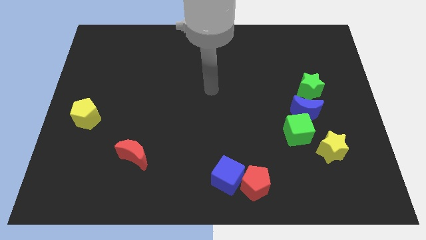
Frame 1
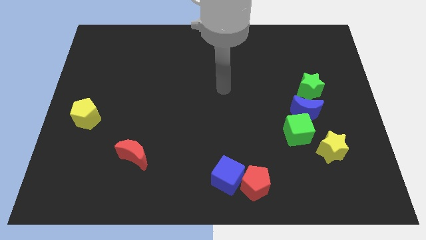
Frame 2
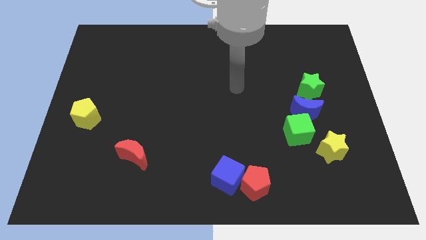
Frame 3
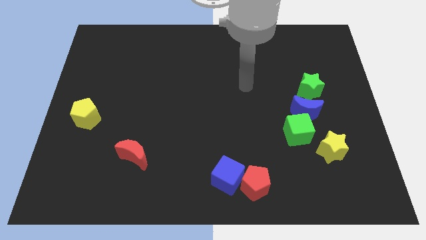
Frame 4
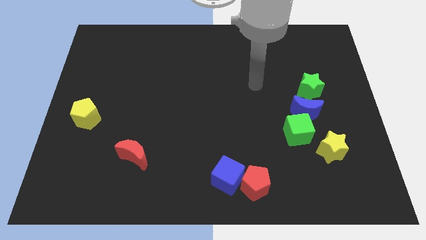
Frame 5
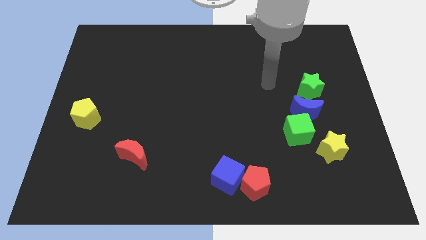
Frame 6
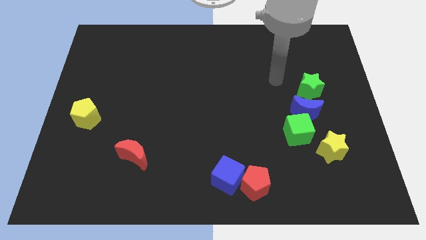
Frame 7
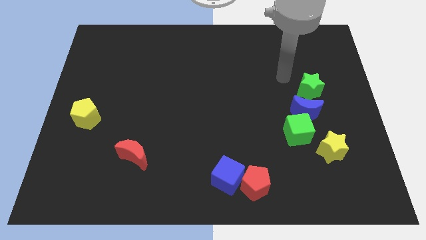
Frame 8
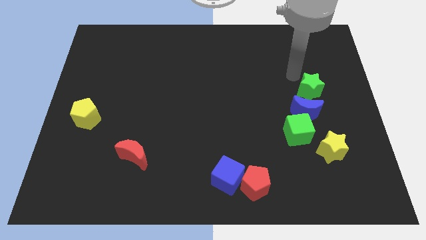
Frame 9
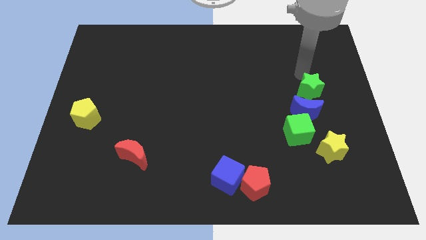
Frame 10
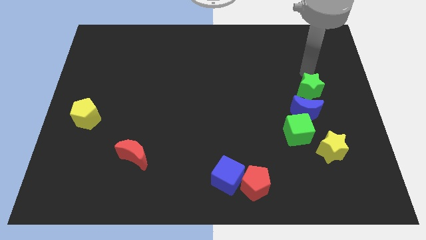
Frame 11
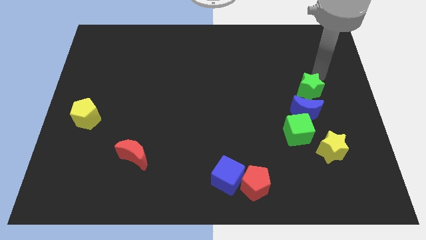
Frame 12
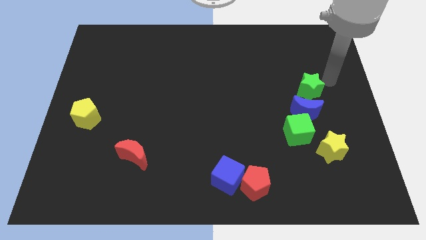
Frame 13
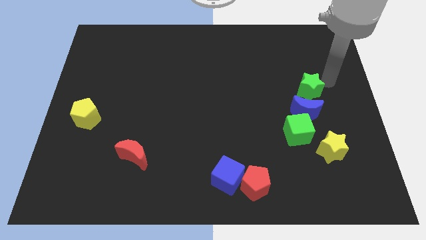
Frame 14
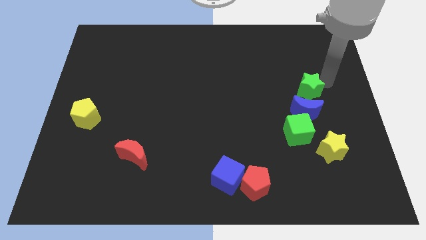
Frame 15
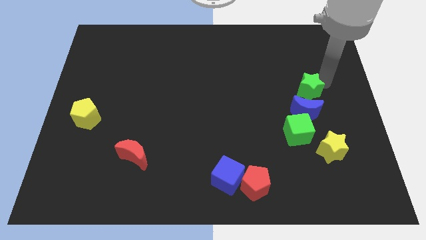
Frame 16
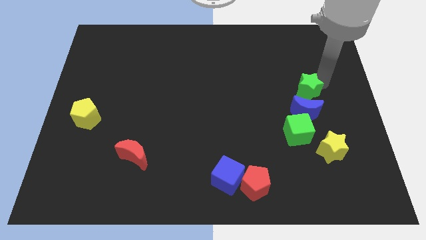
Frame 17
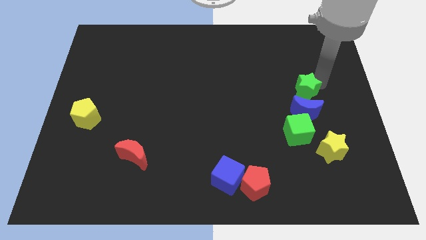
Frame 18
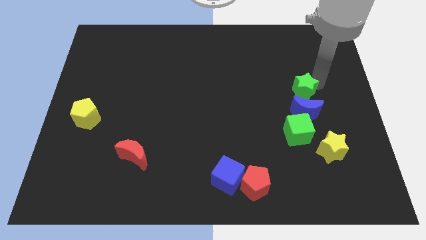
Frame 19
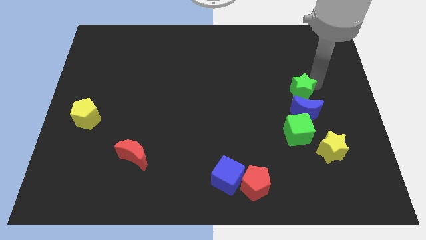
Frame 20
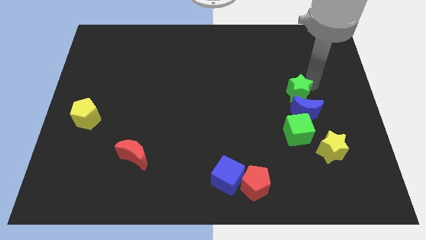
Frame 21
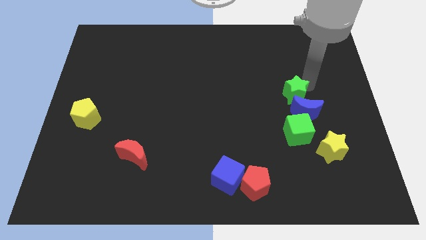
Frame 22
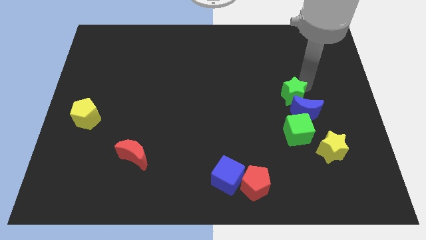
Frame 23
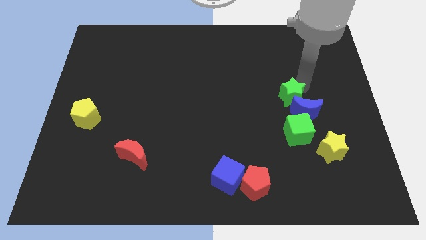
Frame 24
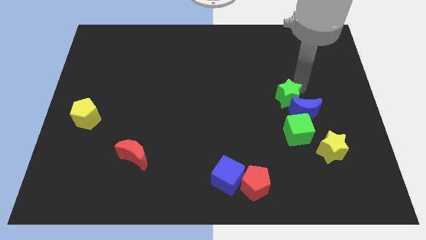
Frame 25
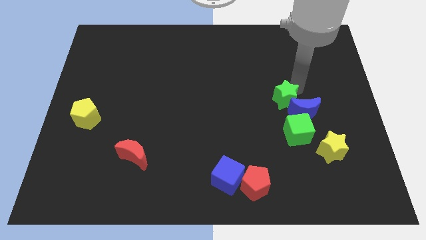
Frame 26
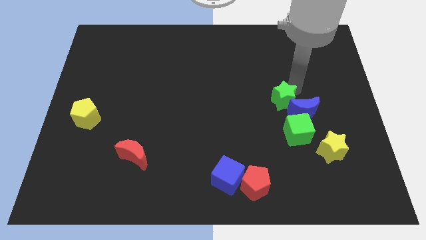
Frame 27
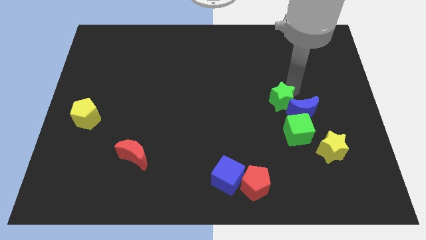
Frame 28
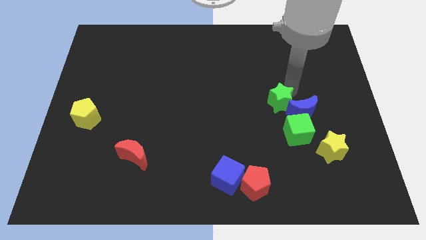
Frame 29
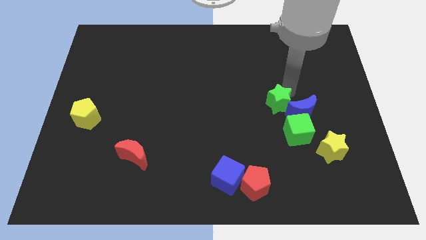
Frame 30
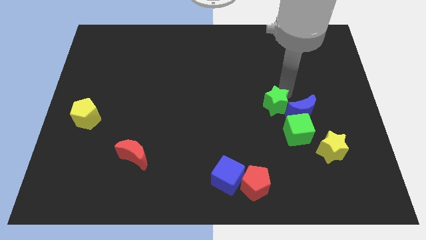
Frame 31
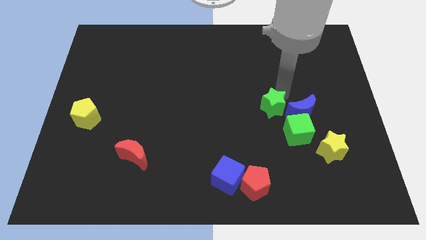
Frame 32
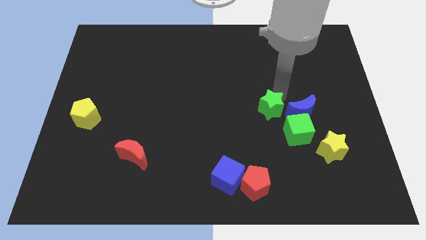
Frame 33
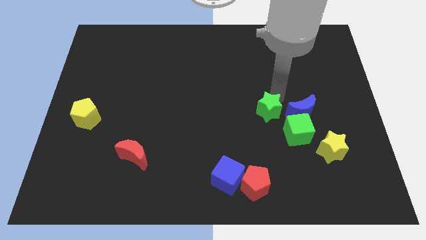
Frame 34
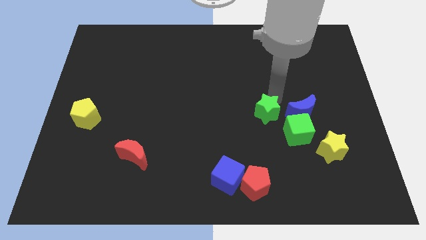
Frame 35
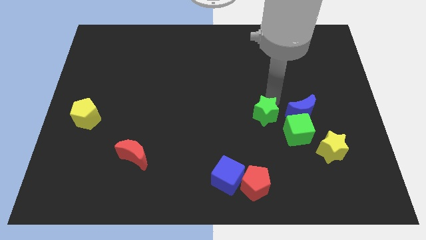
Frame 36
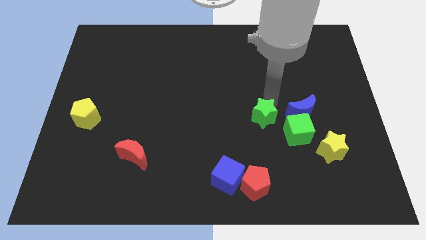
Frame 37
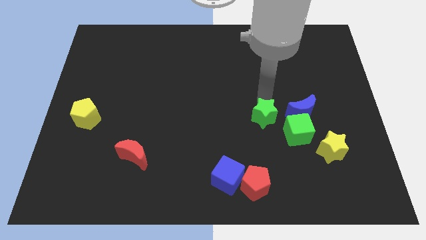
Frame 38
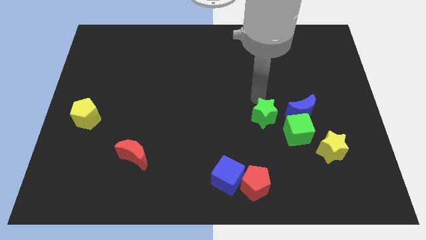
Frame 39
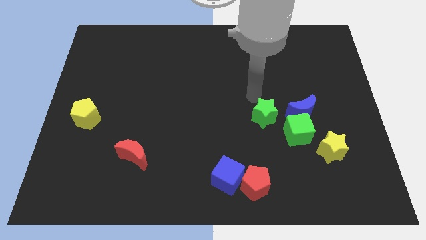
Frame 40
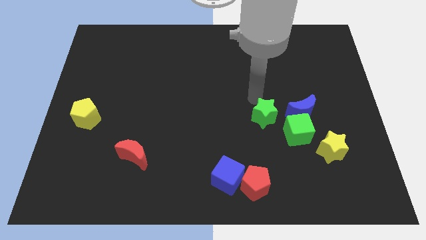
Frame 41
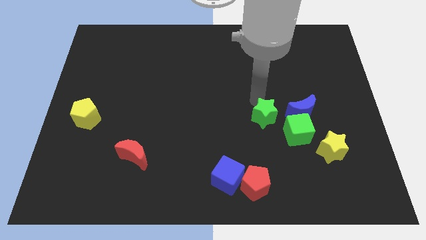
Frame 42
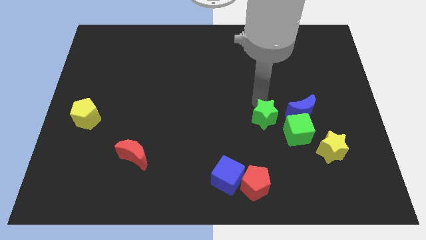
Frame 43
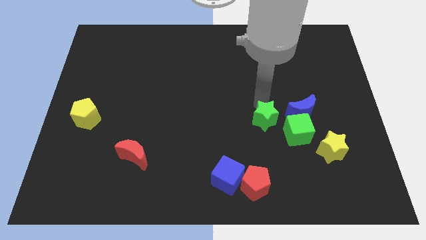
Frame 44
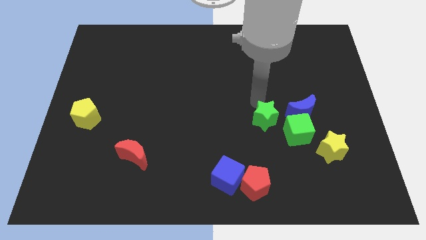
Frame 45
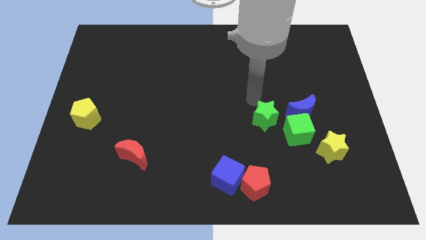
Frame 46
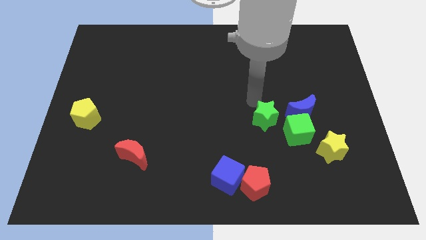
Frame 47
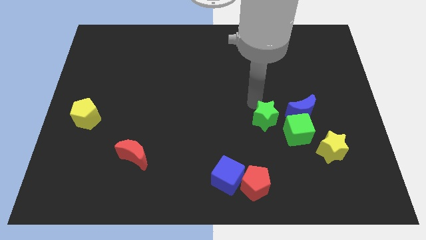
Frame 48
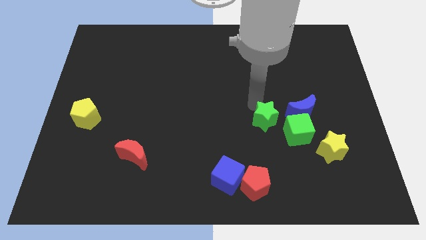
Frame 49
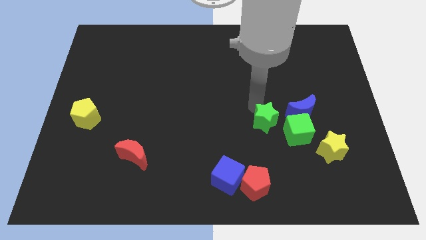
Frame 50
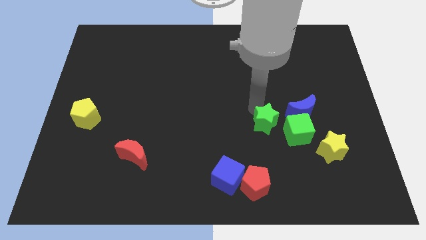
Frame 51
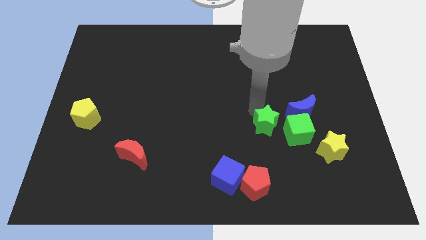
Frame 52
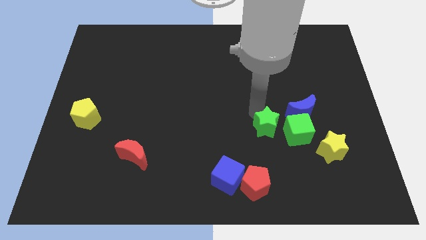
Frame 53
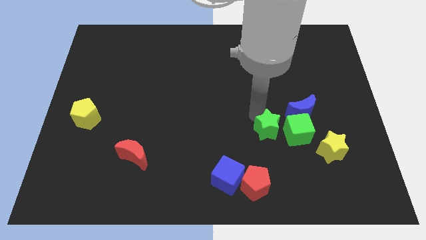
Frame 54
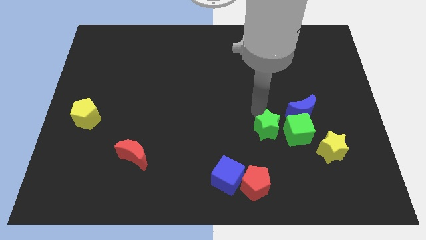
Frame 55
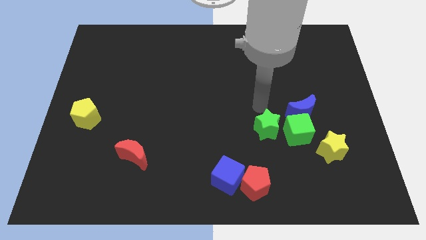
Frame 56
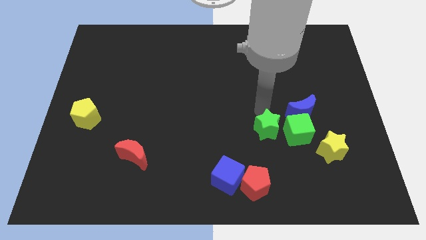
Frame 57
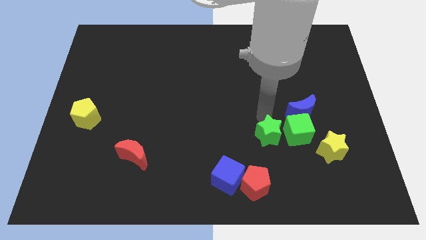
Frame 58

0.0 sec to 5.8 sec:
push the green star diagonally down and to the left of the green cube

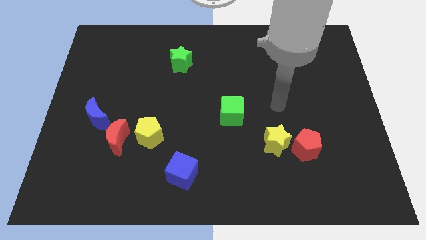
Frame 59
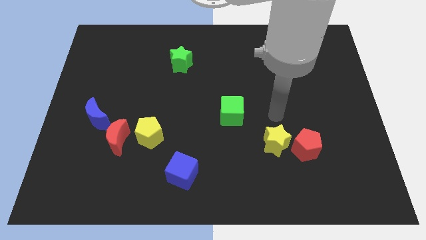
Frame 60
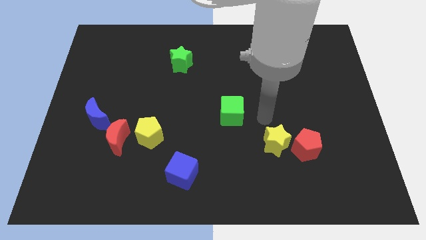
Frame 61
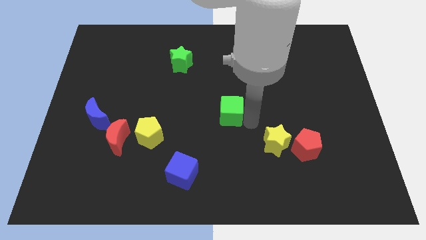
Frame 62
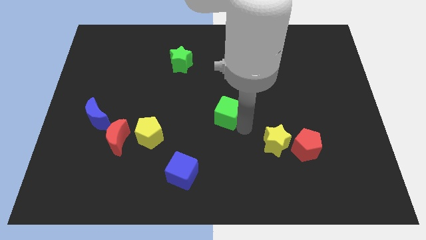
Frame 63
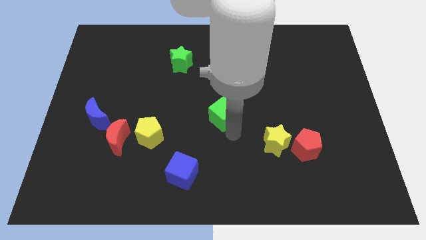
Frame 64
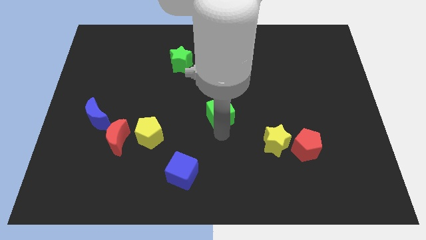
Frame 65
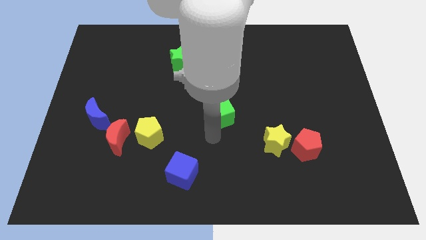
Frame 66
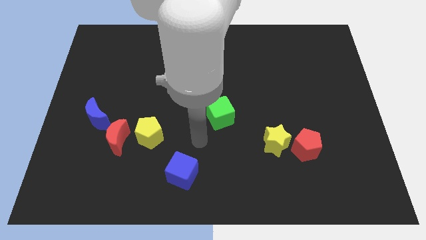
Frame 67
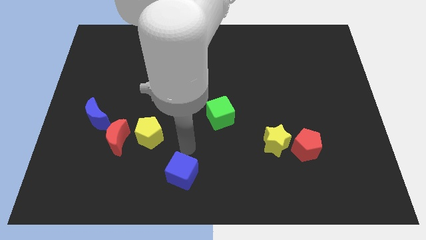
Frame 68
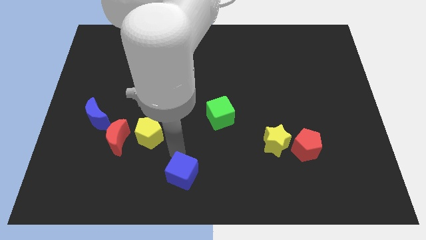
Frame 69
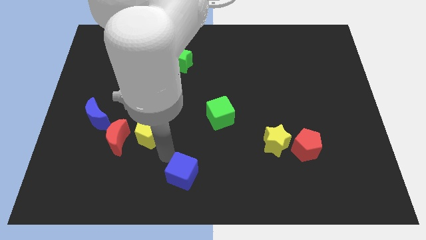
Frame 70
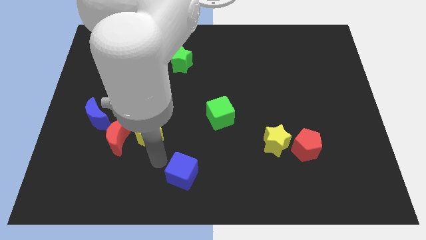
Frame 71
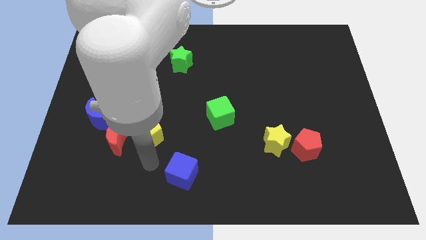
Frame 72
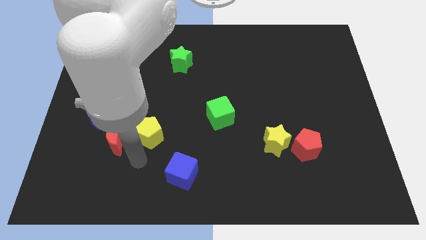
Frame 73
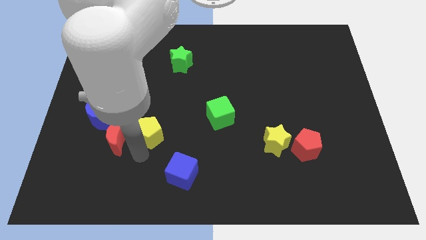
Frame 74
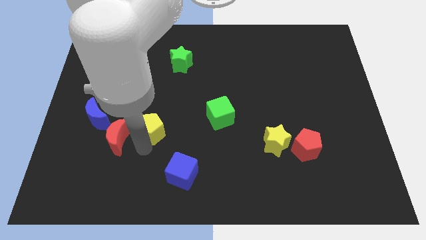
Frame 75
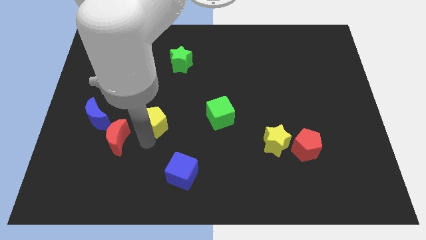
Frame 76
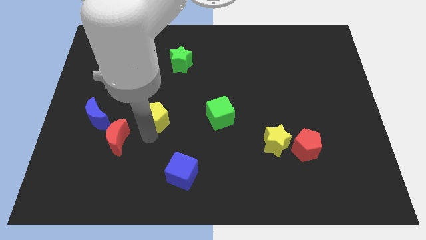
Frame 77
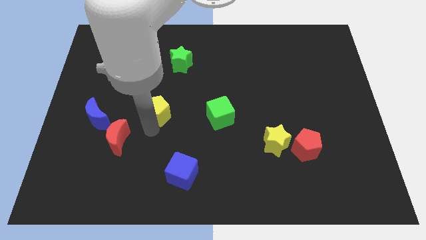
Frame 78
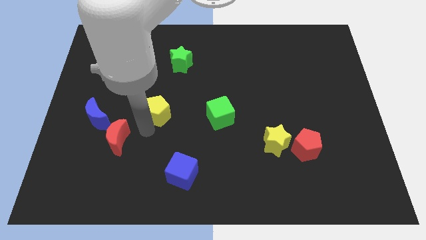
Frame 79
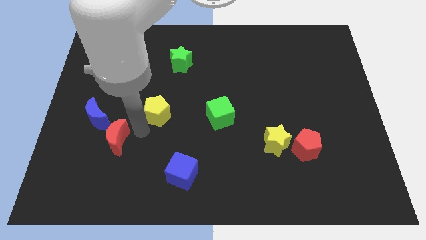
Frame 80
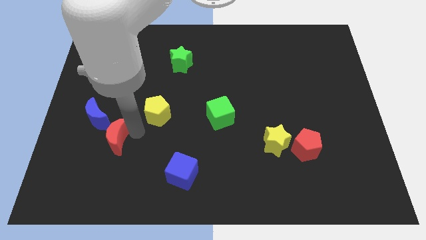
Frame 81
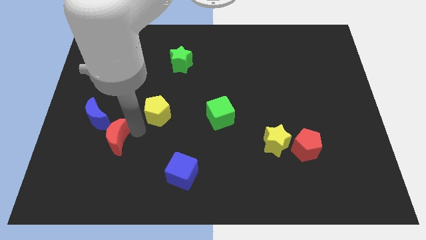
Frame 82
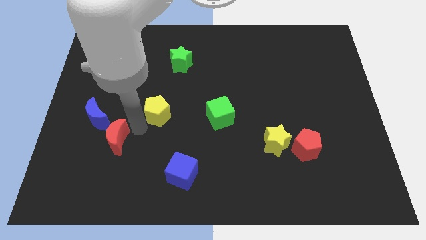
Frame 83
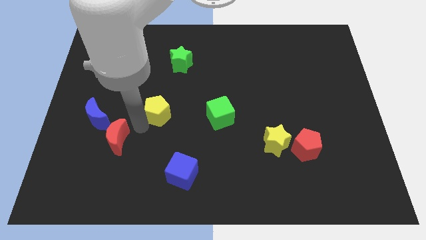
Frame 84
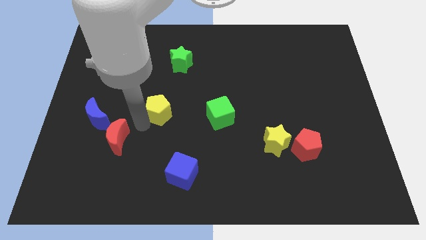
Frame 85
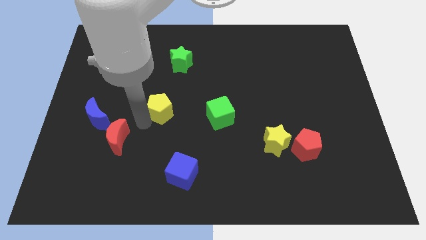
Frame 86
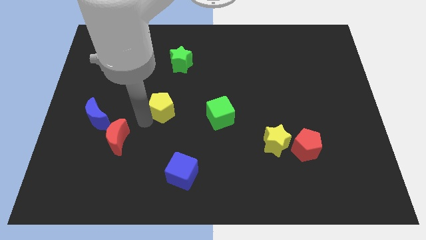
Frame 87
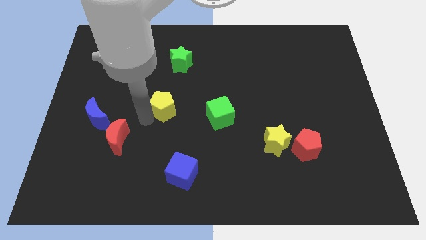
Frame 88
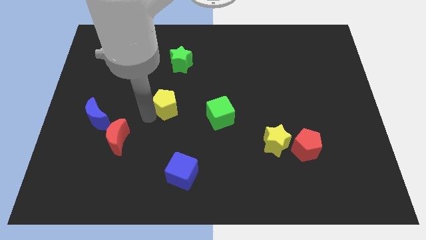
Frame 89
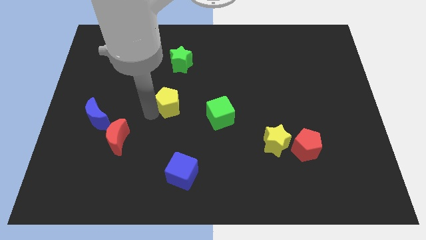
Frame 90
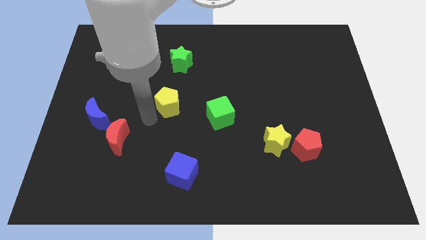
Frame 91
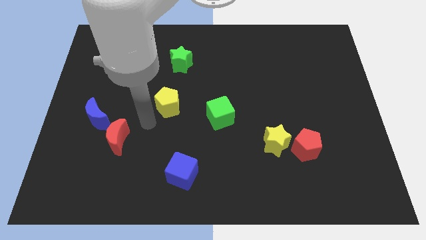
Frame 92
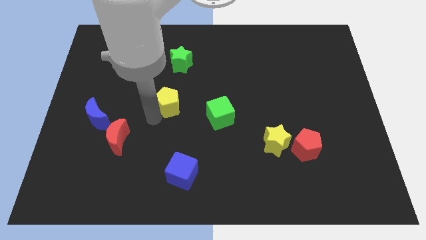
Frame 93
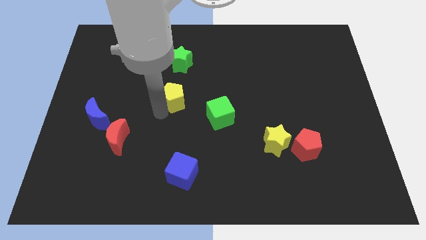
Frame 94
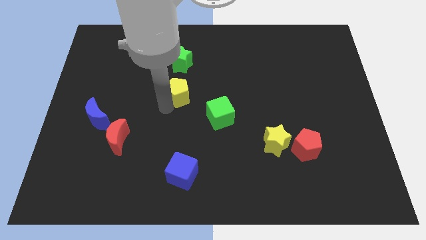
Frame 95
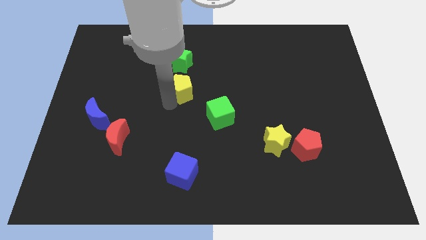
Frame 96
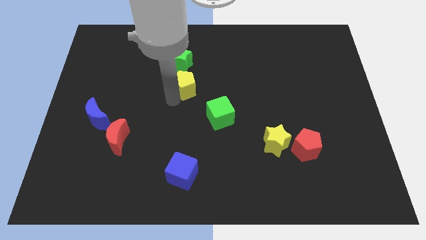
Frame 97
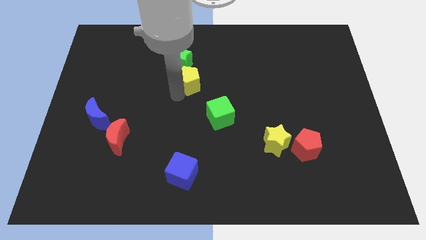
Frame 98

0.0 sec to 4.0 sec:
push the yellow pentagon to the bottom right side of the green star
